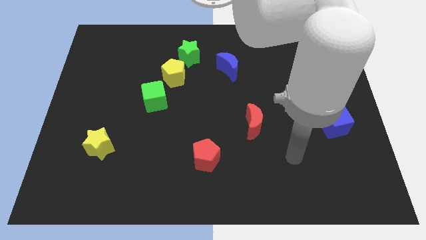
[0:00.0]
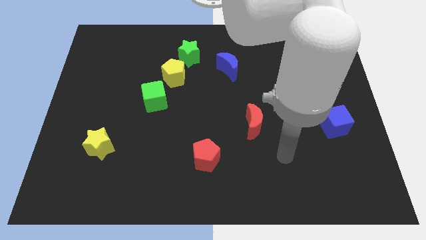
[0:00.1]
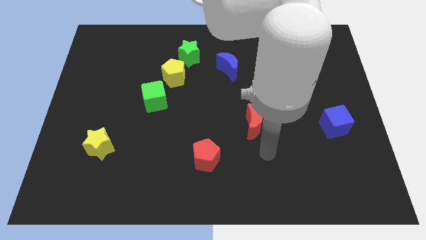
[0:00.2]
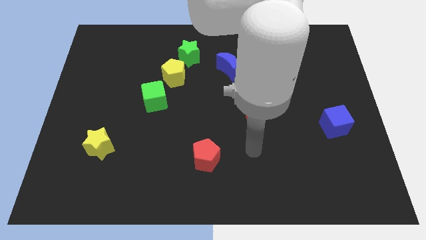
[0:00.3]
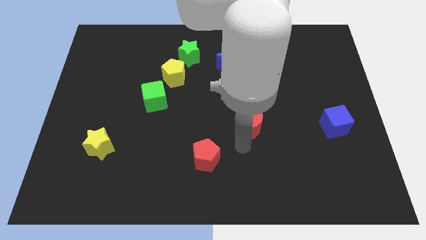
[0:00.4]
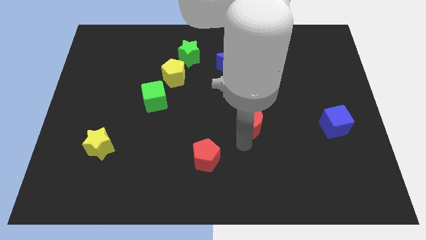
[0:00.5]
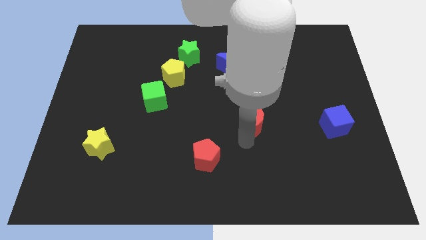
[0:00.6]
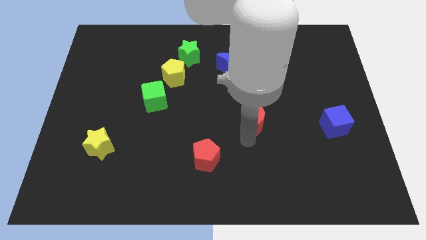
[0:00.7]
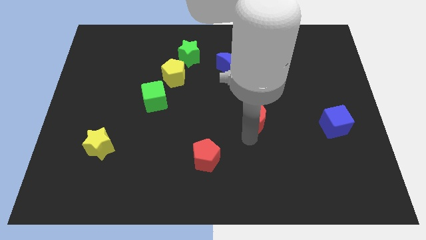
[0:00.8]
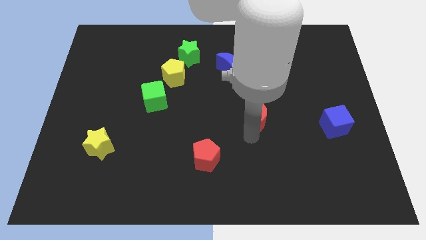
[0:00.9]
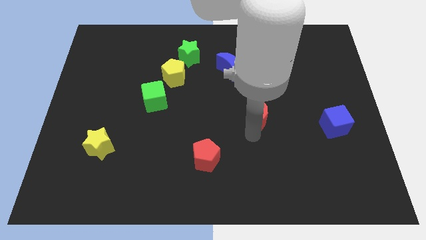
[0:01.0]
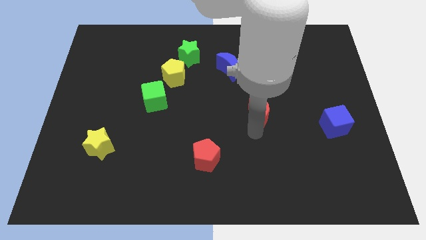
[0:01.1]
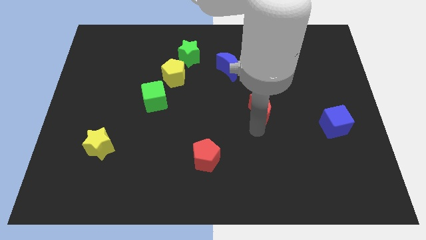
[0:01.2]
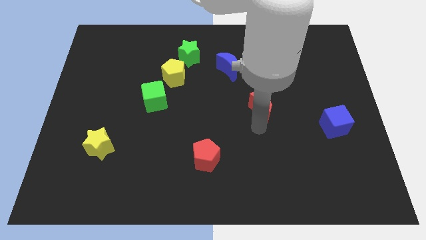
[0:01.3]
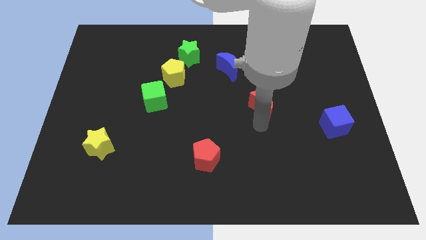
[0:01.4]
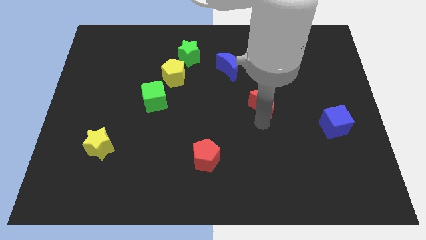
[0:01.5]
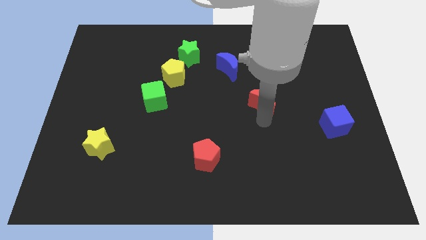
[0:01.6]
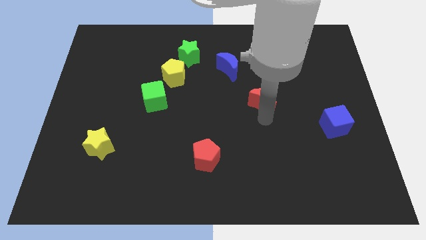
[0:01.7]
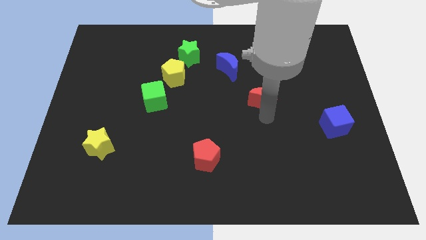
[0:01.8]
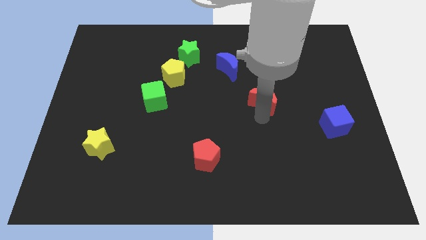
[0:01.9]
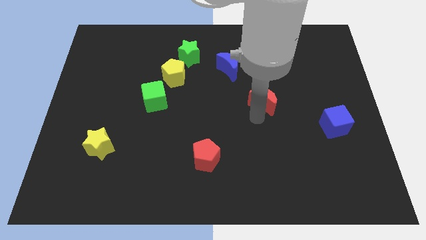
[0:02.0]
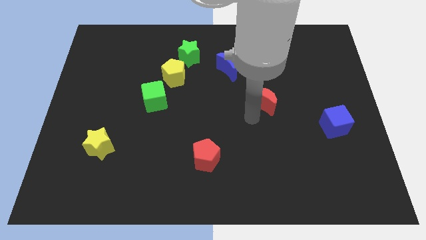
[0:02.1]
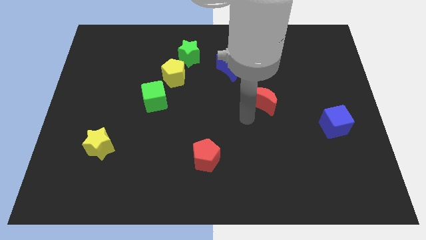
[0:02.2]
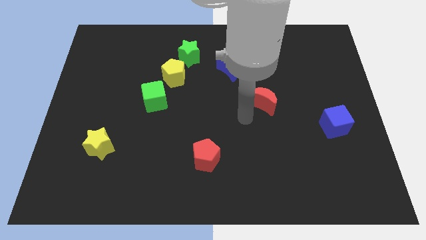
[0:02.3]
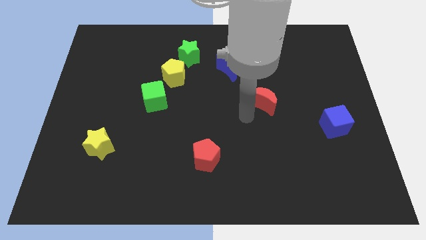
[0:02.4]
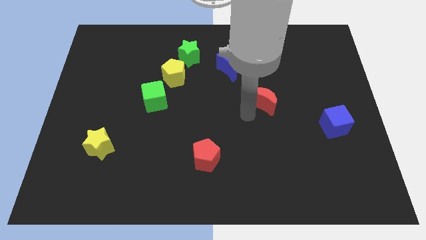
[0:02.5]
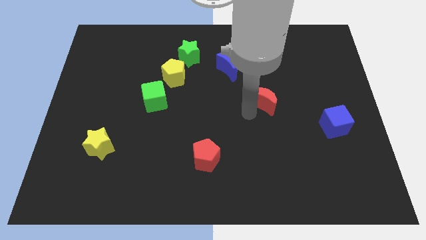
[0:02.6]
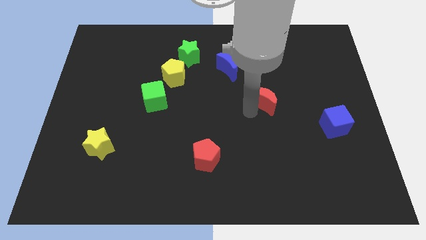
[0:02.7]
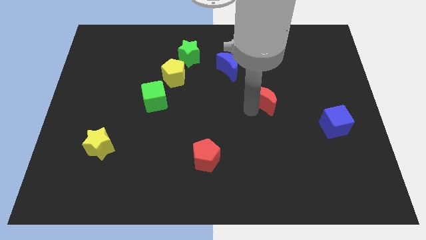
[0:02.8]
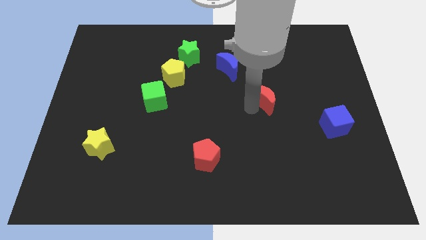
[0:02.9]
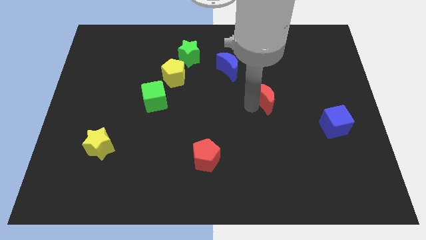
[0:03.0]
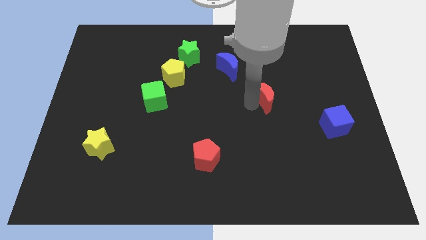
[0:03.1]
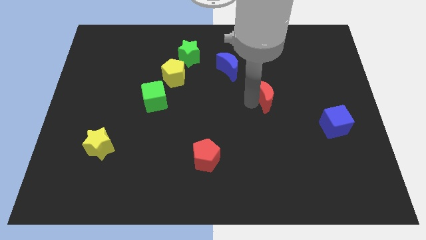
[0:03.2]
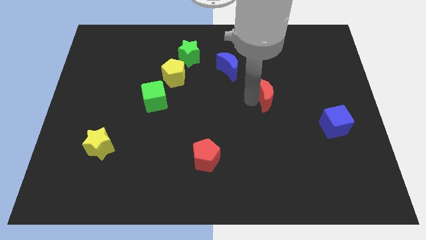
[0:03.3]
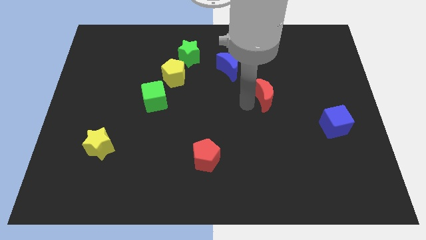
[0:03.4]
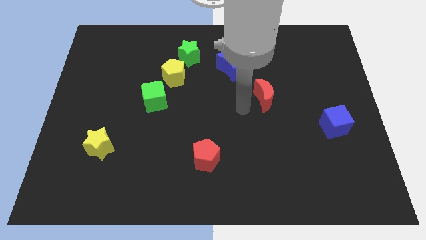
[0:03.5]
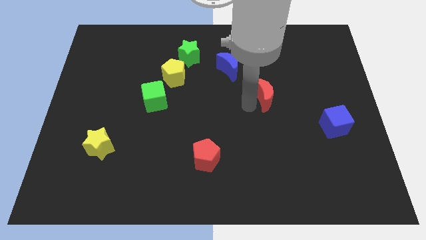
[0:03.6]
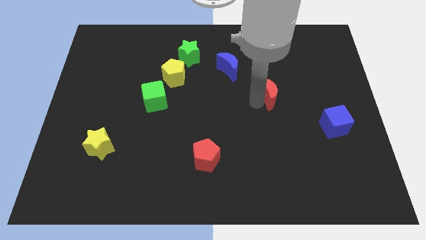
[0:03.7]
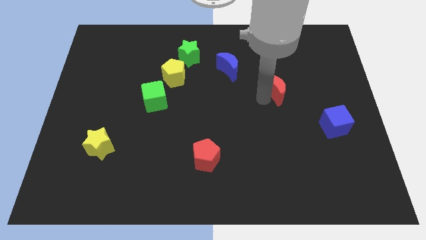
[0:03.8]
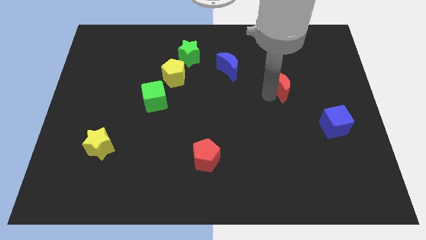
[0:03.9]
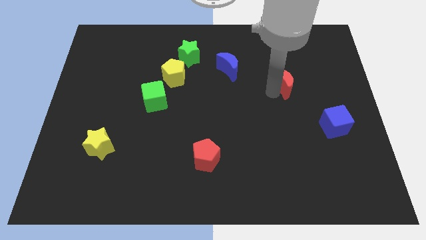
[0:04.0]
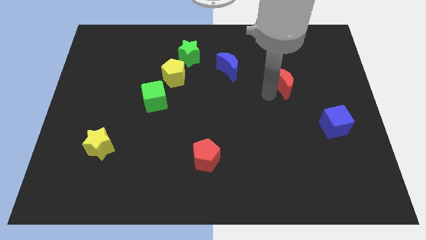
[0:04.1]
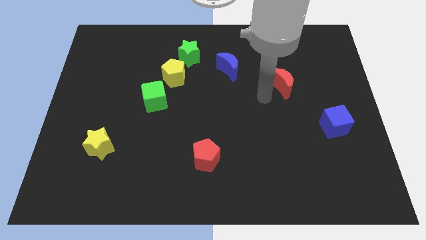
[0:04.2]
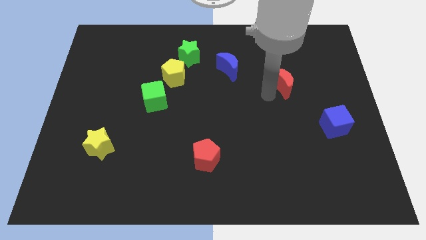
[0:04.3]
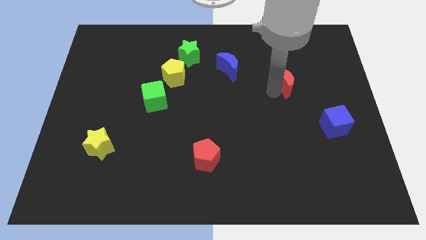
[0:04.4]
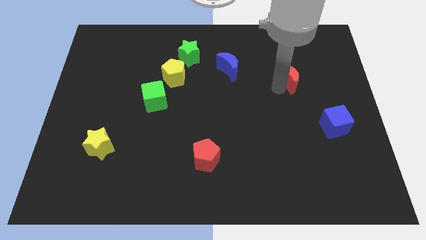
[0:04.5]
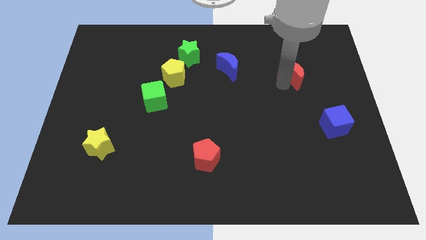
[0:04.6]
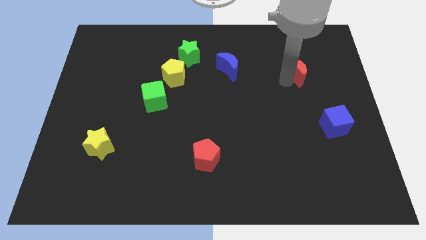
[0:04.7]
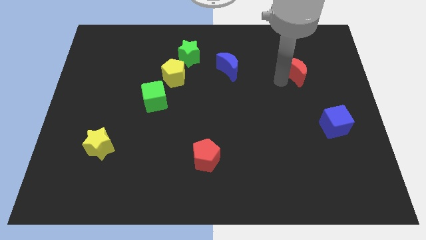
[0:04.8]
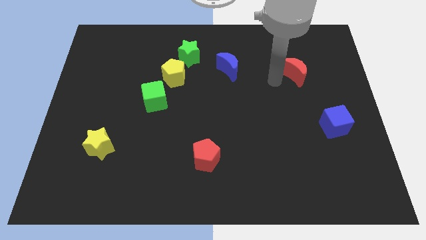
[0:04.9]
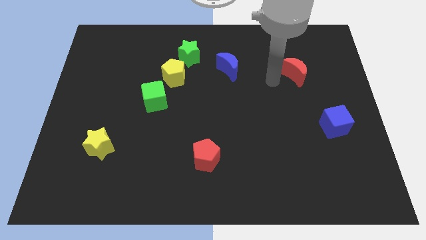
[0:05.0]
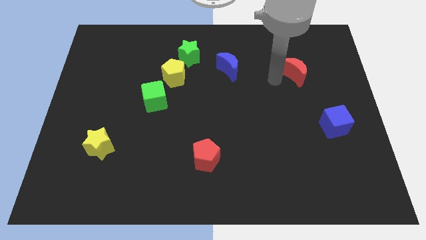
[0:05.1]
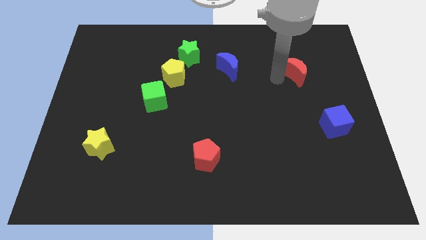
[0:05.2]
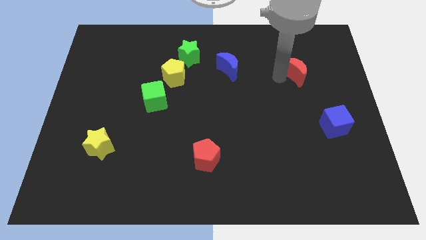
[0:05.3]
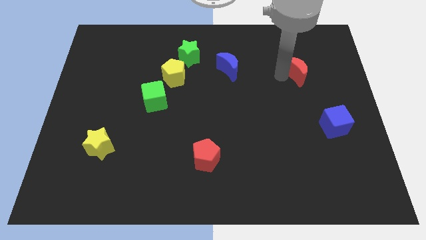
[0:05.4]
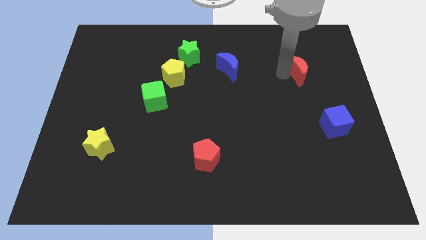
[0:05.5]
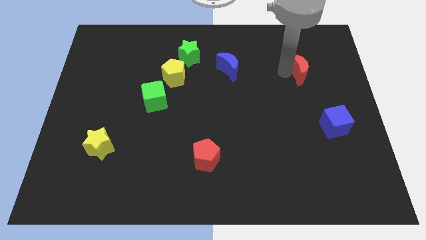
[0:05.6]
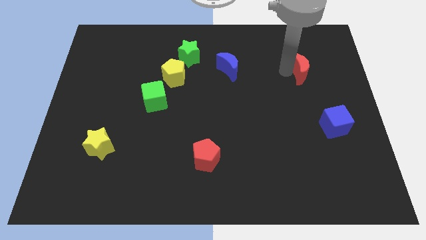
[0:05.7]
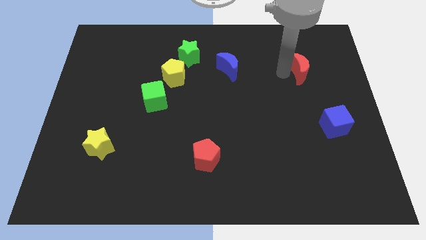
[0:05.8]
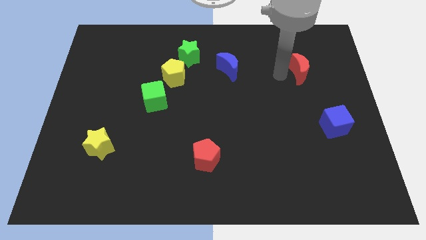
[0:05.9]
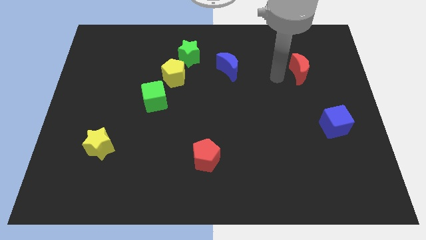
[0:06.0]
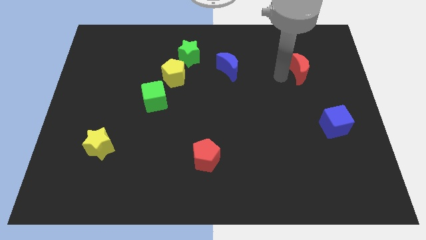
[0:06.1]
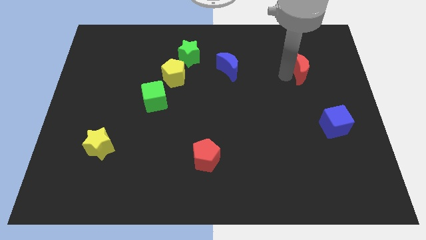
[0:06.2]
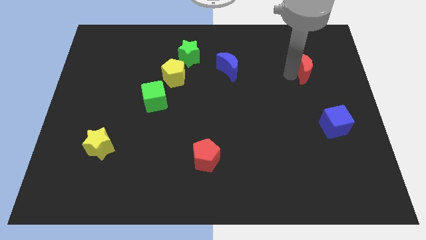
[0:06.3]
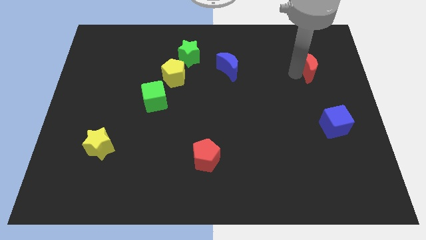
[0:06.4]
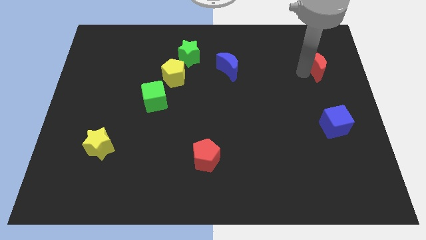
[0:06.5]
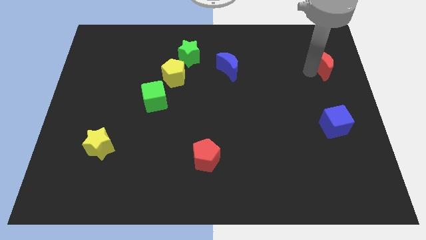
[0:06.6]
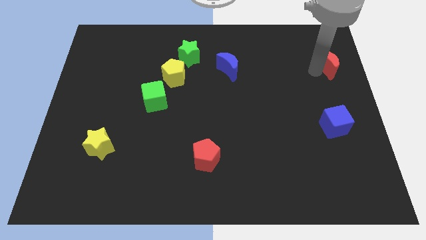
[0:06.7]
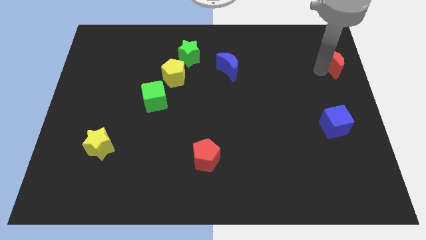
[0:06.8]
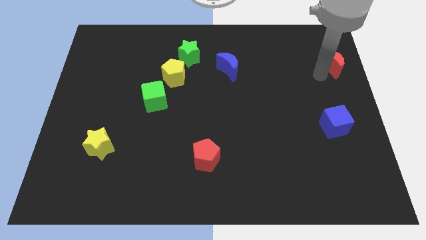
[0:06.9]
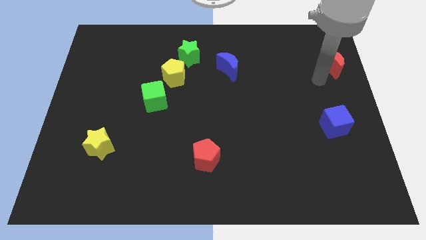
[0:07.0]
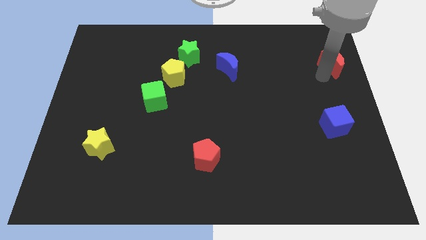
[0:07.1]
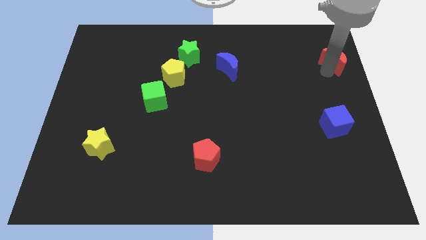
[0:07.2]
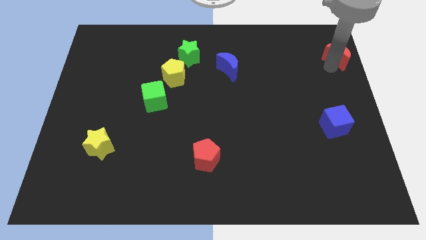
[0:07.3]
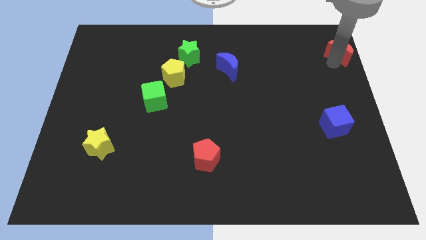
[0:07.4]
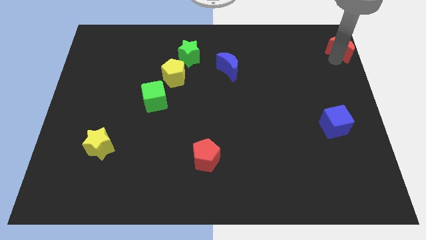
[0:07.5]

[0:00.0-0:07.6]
put the red moon to the top right
